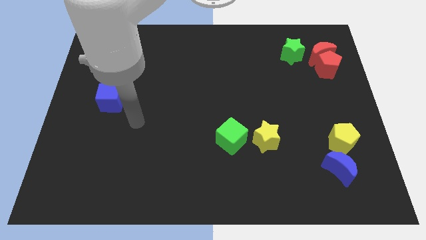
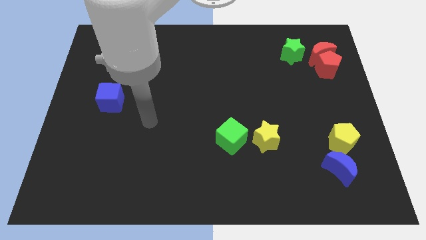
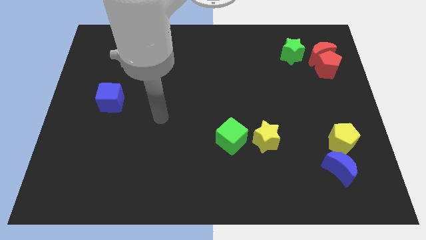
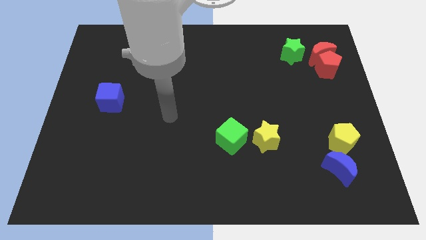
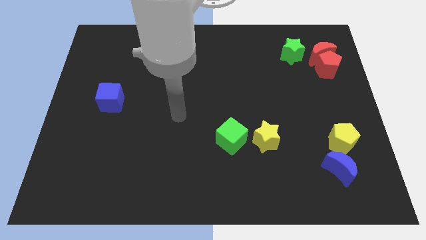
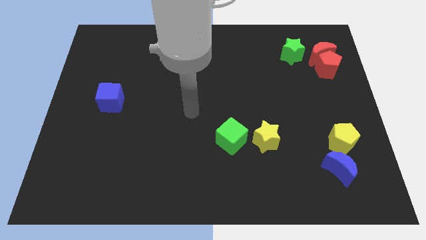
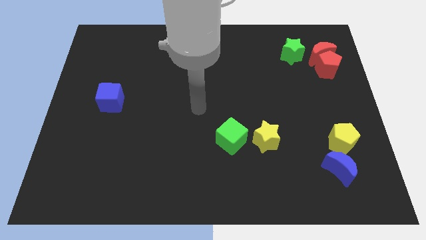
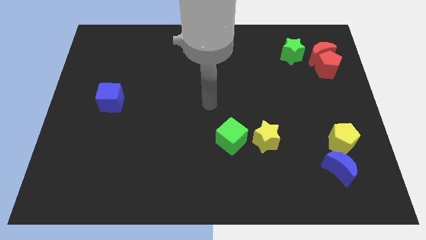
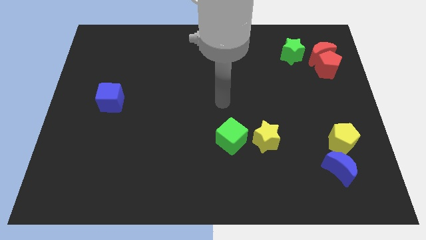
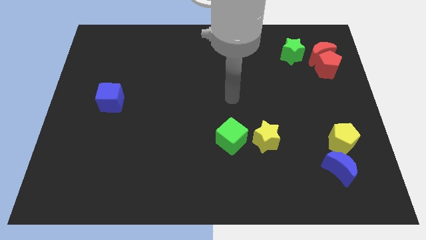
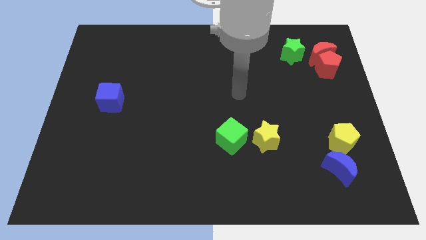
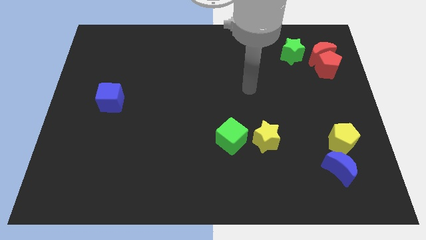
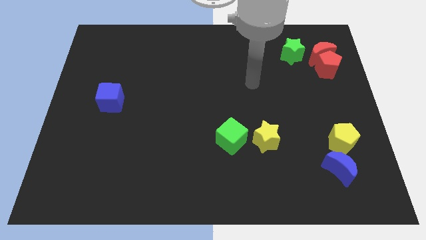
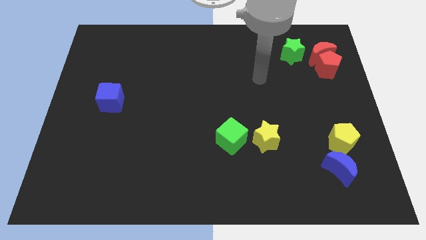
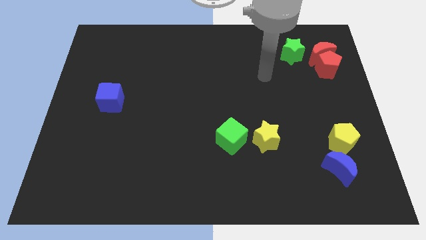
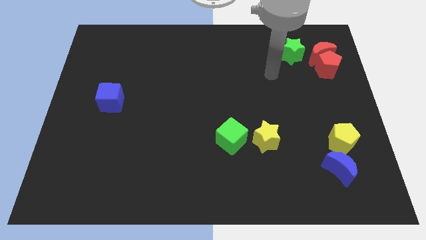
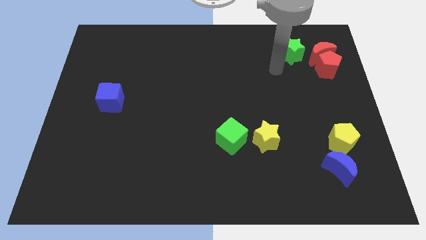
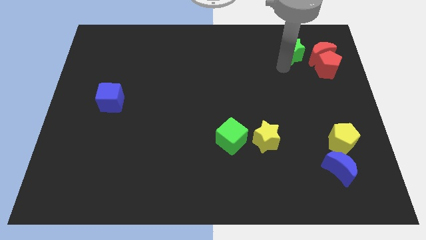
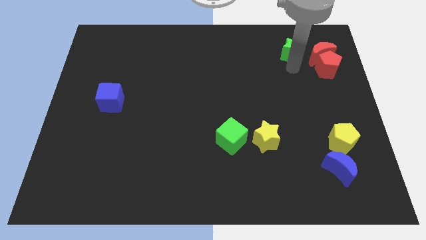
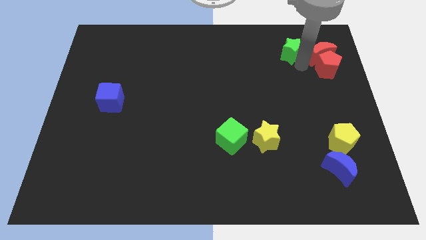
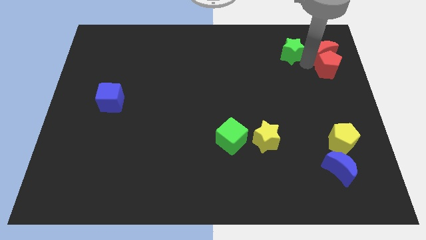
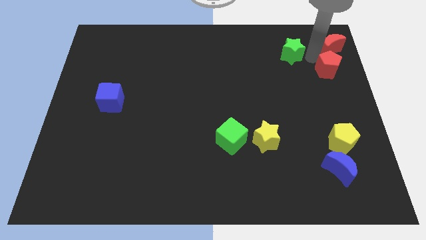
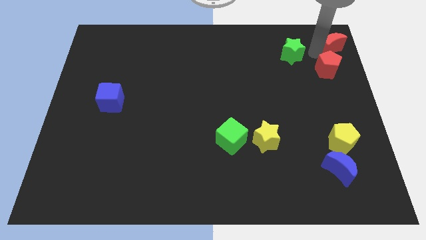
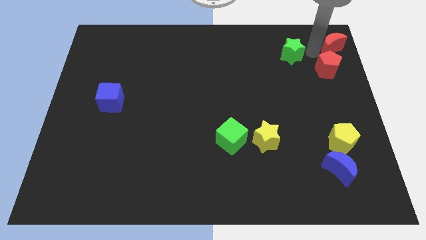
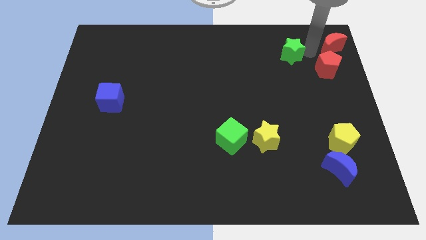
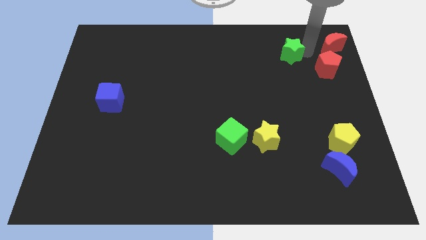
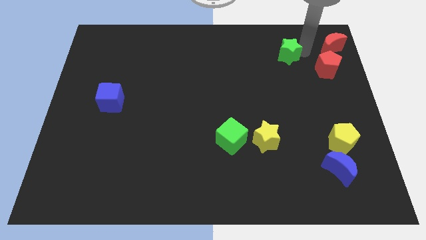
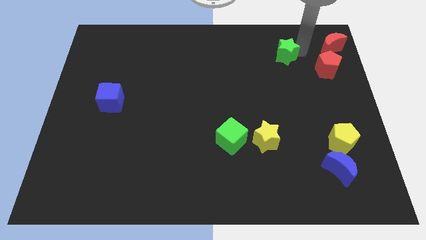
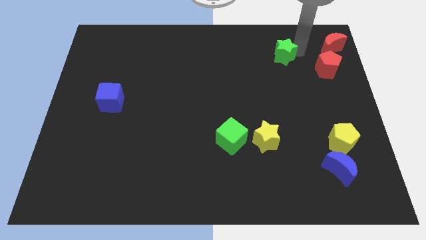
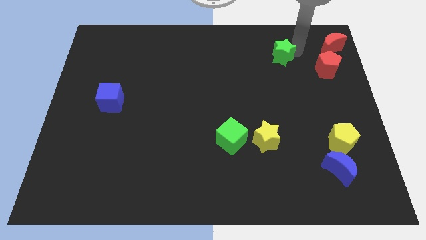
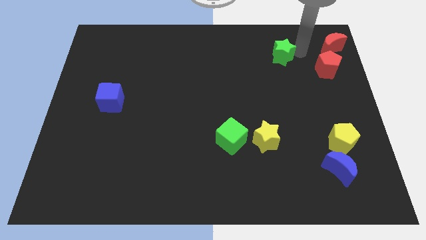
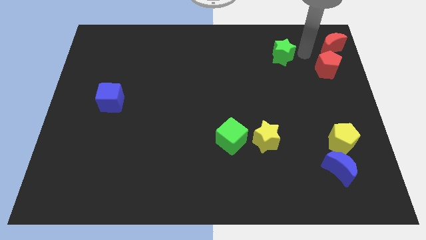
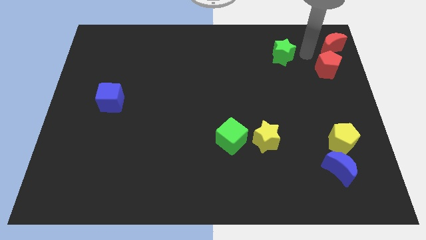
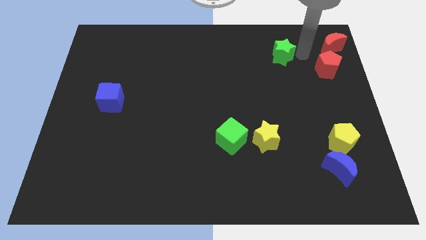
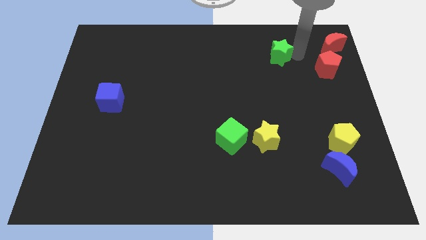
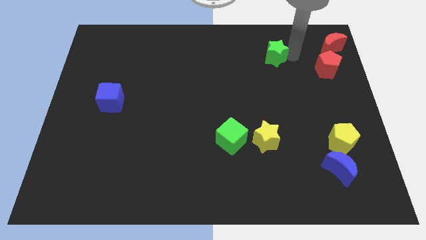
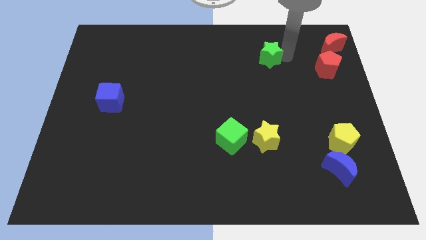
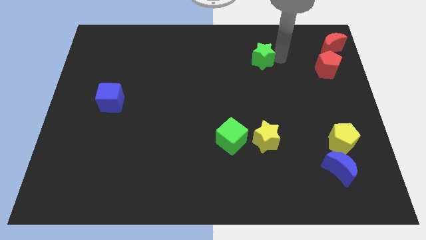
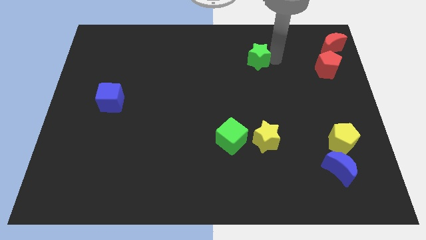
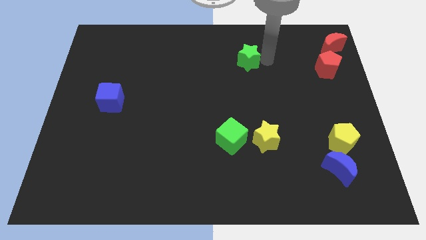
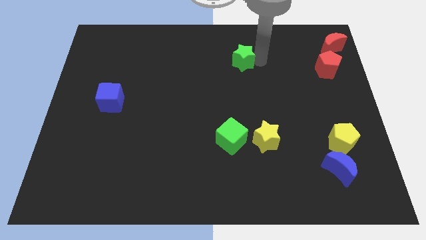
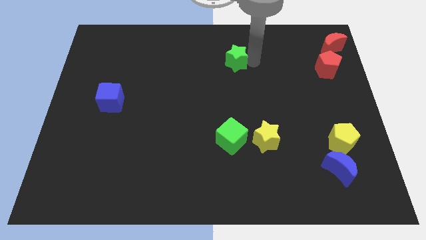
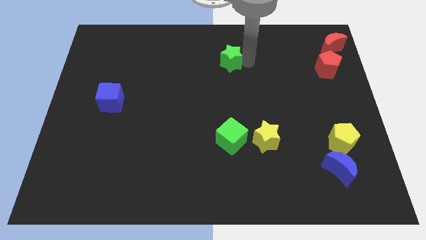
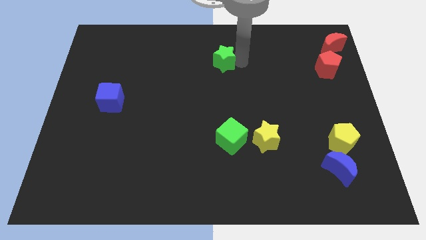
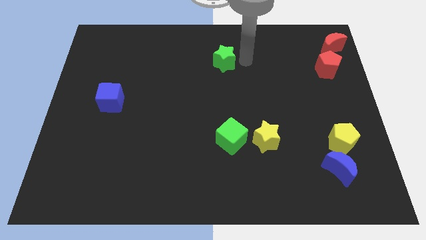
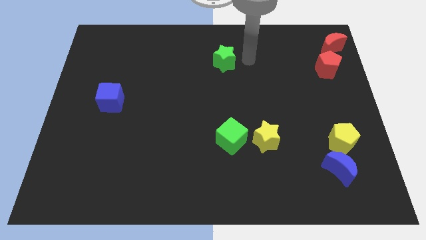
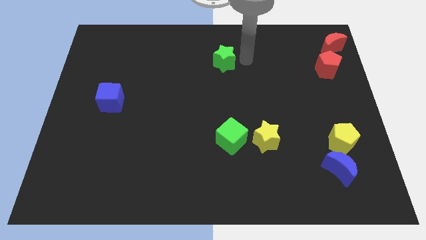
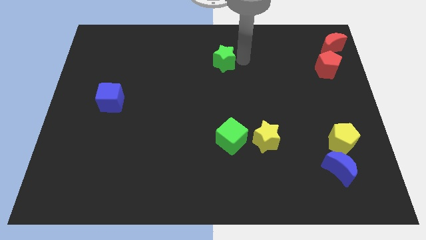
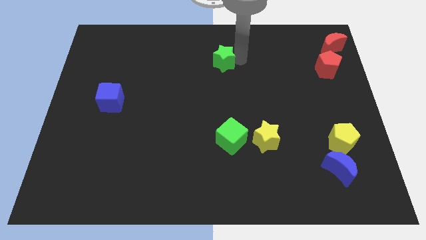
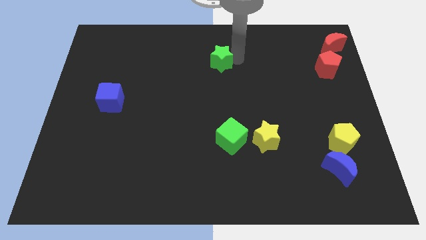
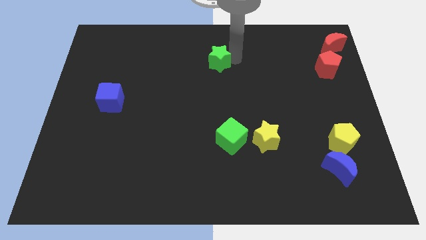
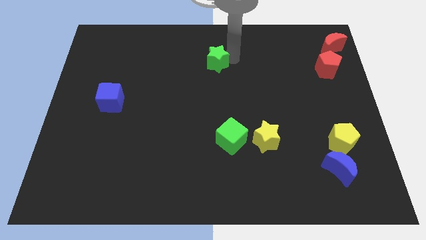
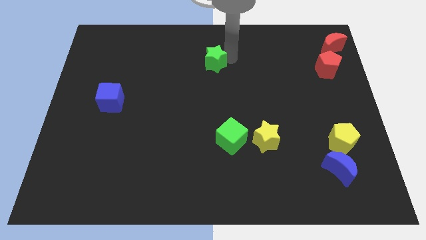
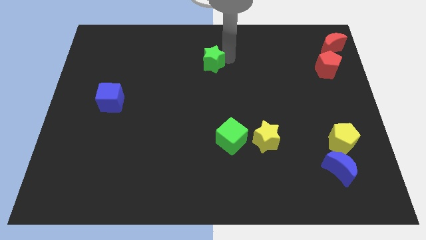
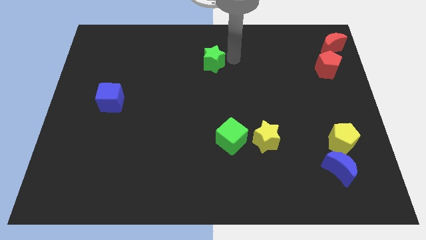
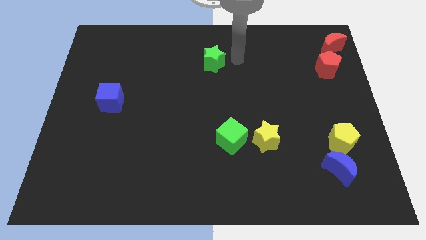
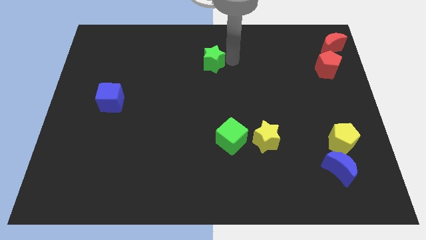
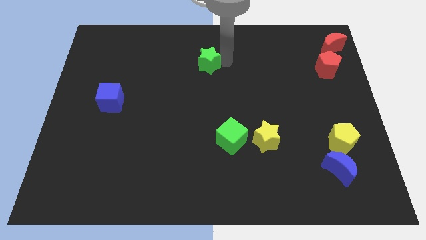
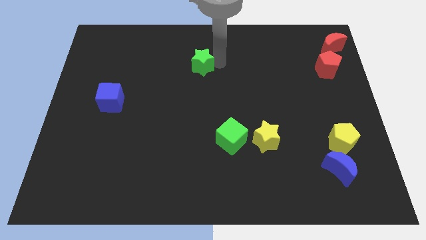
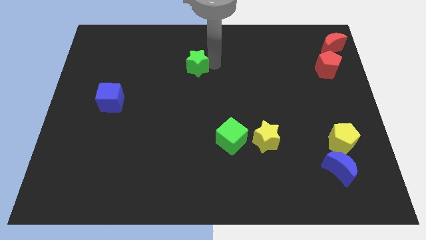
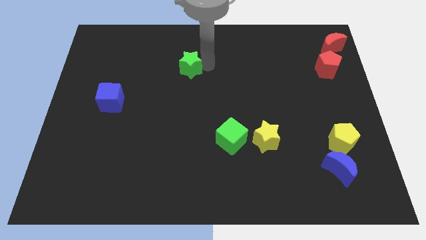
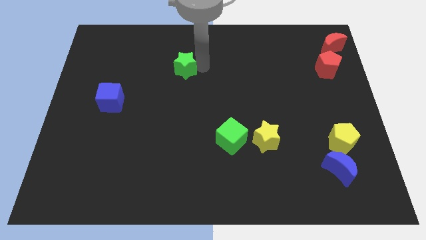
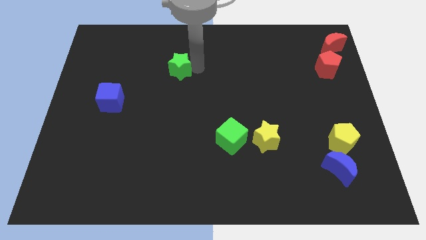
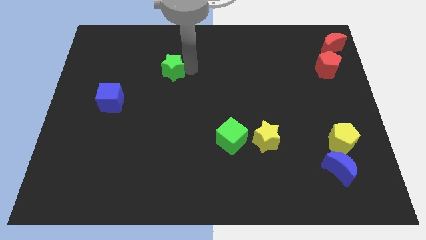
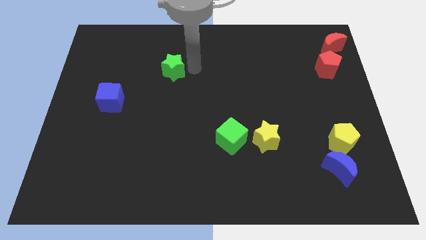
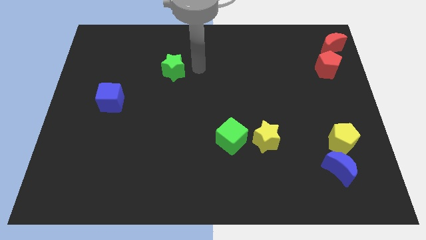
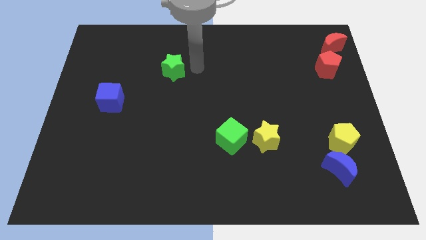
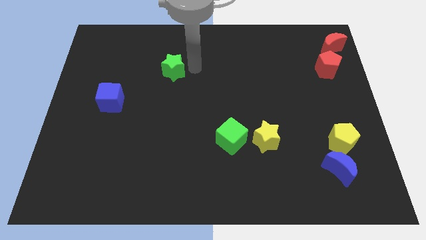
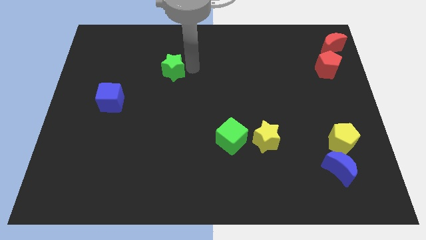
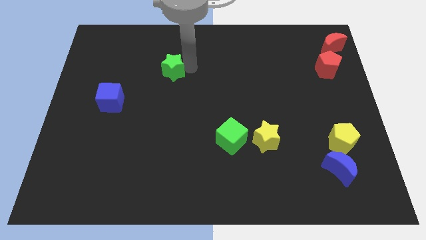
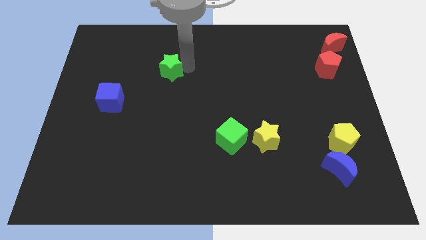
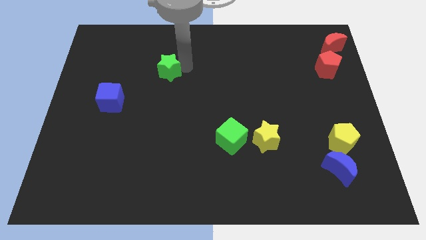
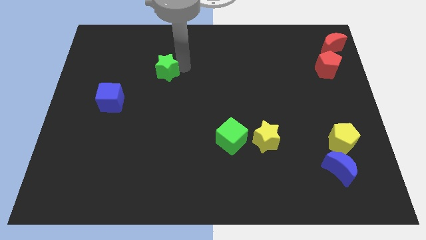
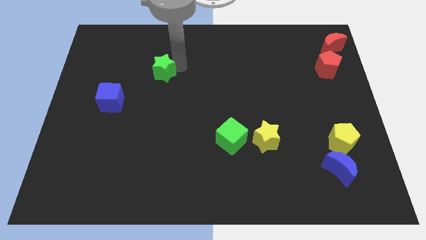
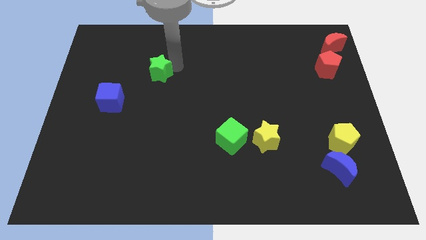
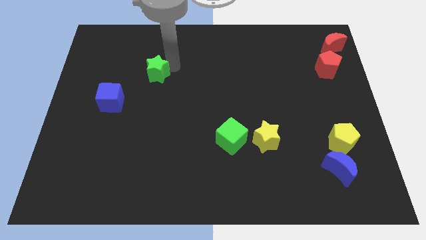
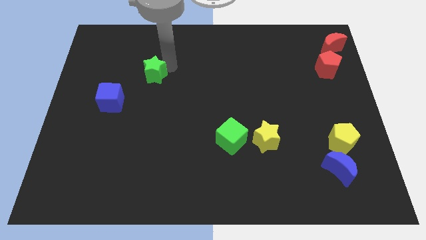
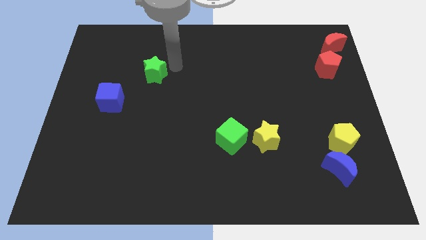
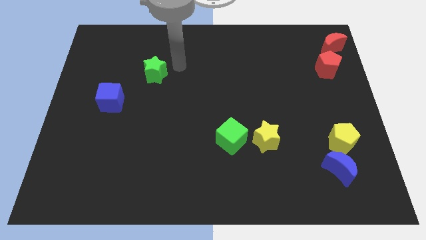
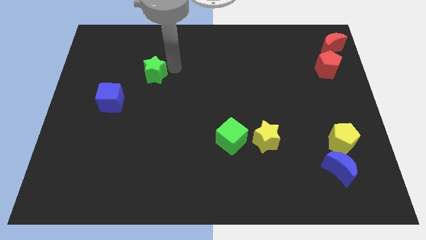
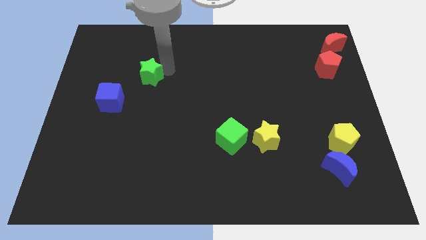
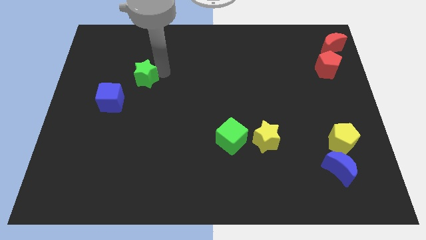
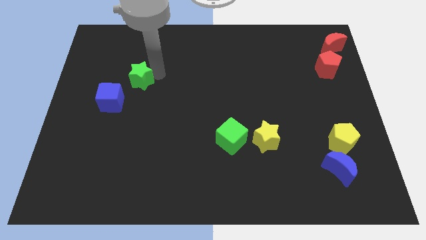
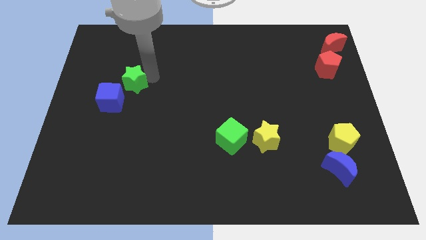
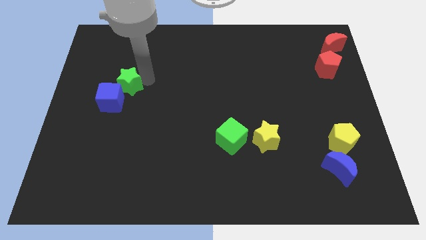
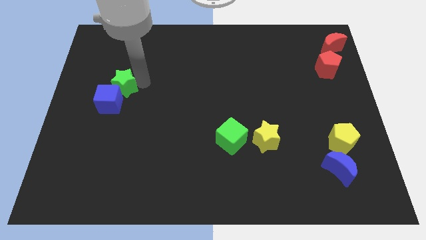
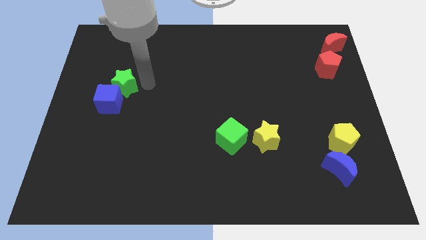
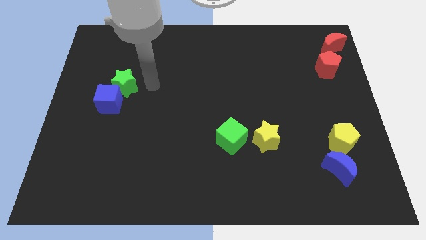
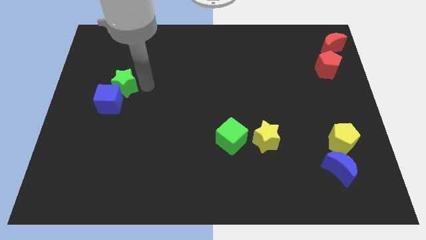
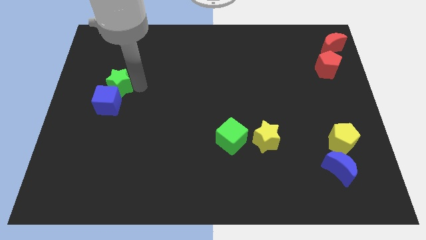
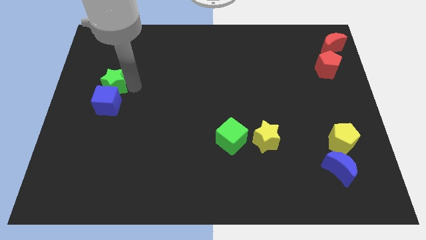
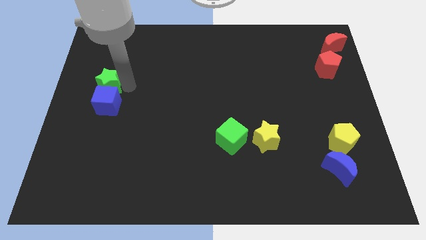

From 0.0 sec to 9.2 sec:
move the green star to the left side of the board
